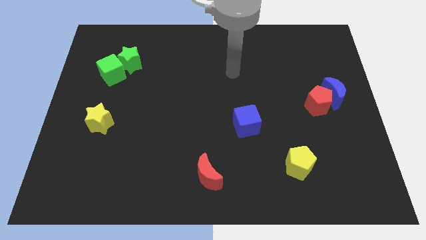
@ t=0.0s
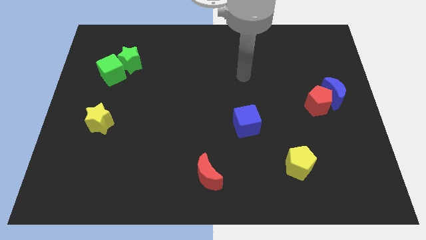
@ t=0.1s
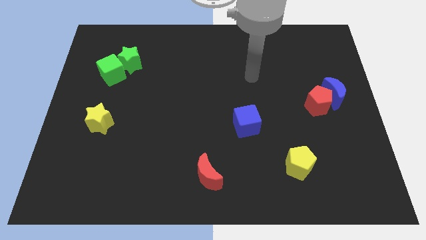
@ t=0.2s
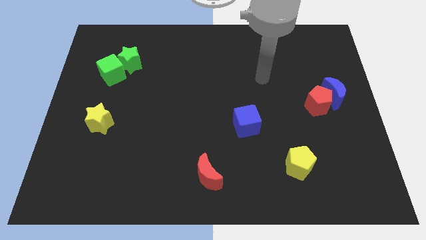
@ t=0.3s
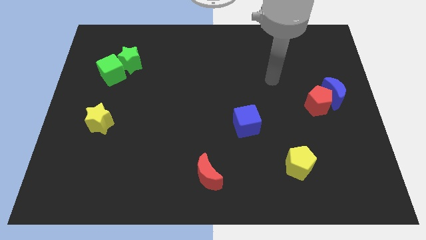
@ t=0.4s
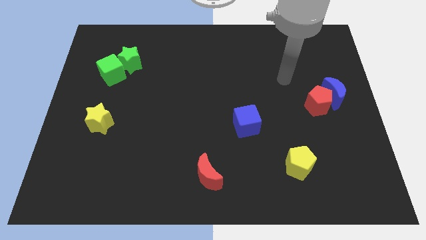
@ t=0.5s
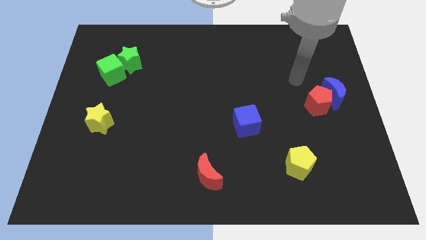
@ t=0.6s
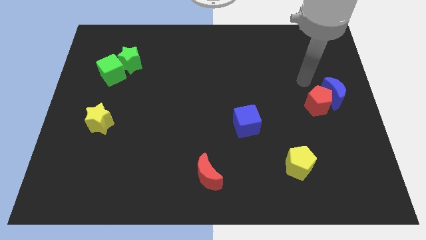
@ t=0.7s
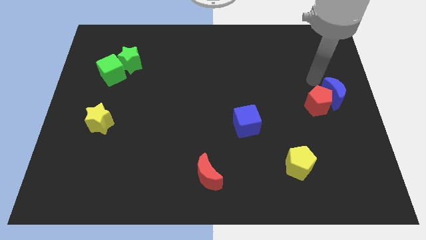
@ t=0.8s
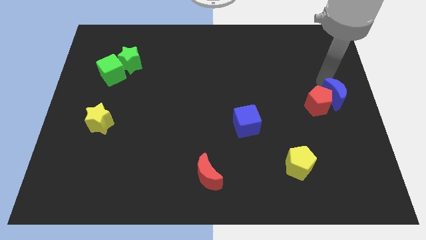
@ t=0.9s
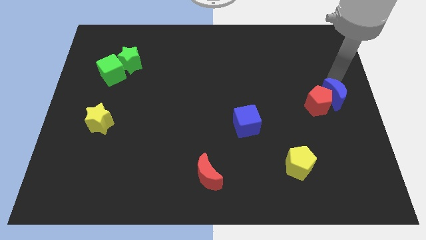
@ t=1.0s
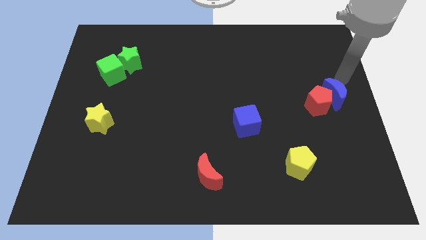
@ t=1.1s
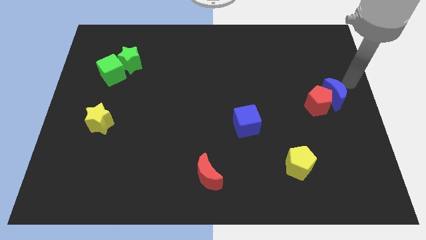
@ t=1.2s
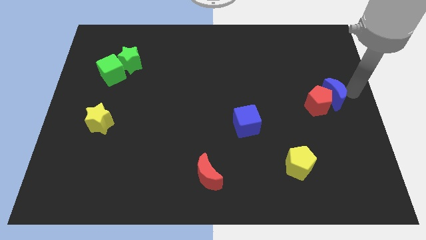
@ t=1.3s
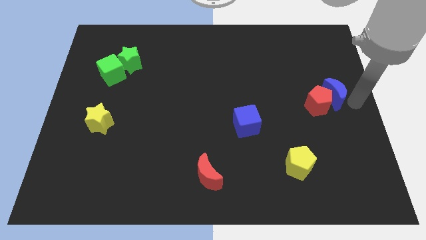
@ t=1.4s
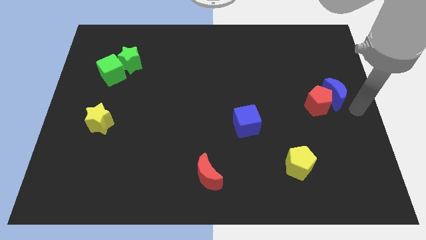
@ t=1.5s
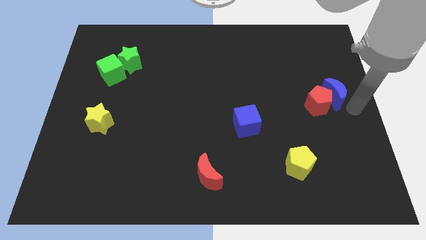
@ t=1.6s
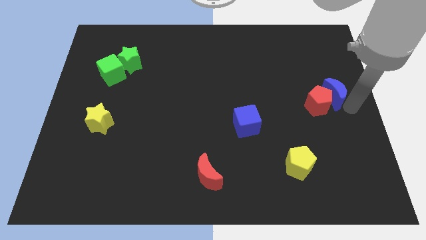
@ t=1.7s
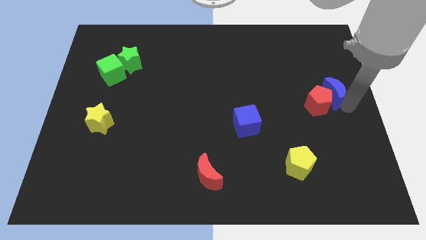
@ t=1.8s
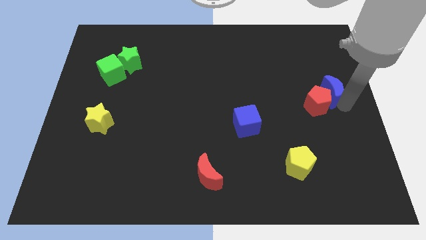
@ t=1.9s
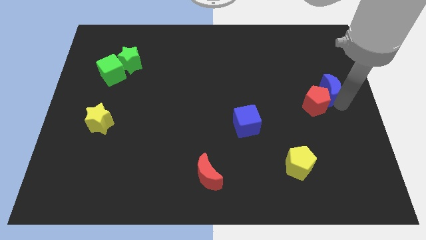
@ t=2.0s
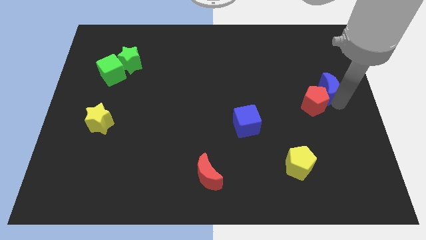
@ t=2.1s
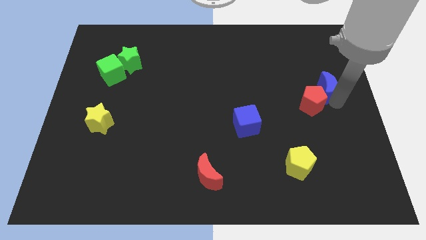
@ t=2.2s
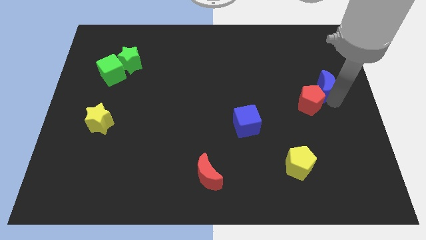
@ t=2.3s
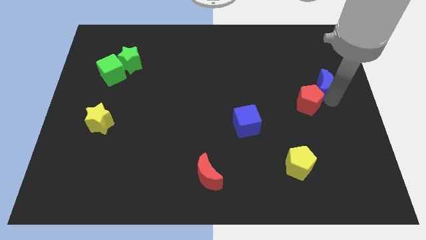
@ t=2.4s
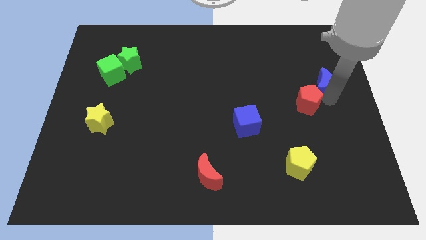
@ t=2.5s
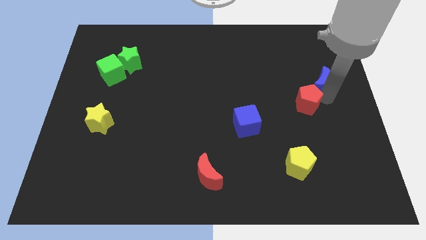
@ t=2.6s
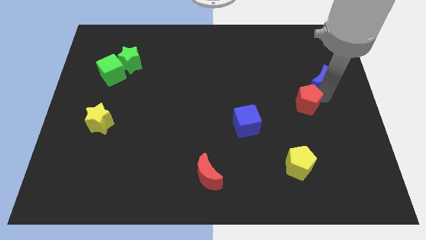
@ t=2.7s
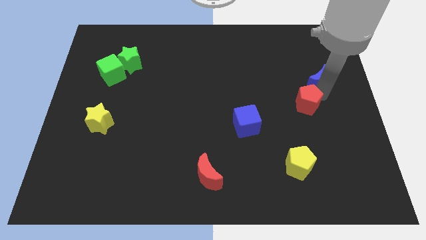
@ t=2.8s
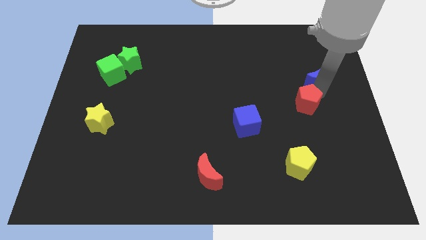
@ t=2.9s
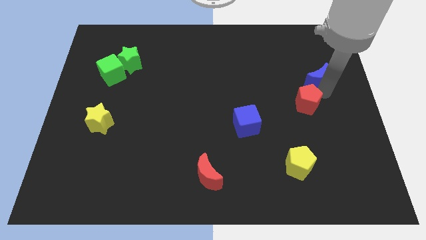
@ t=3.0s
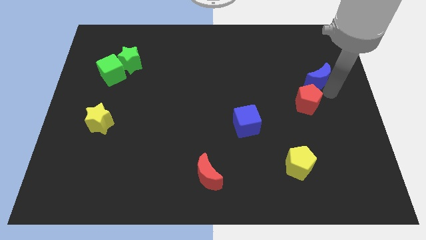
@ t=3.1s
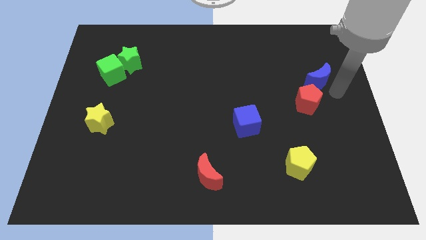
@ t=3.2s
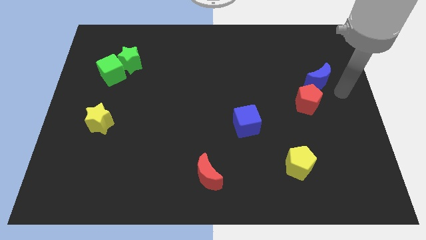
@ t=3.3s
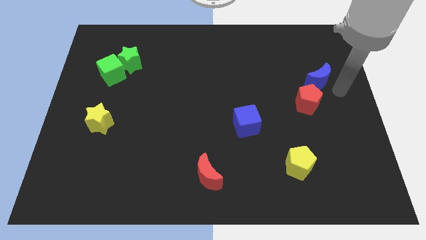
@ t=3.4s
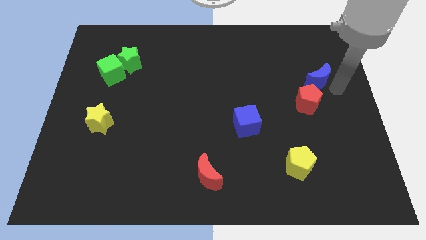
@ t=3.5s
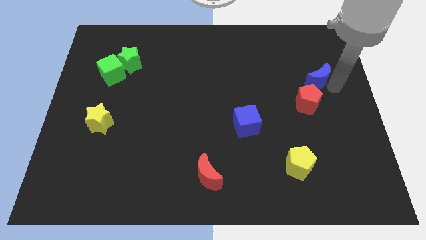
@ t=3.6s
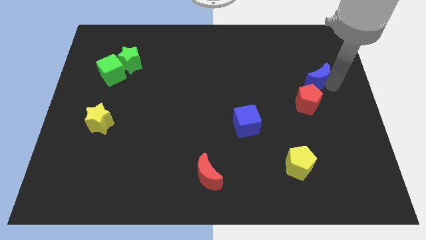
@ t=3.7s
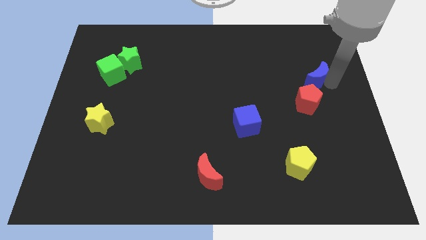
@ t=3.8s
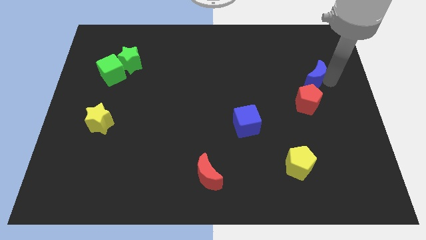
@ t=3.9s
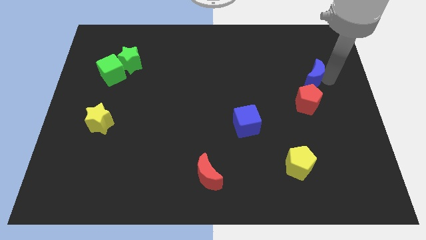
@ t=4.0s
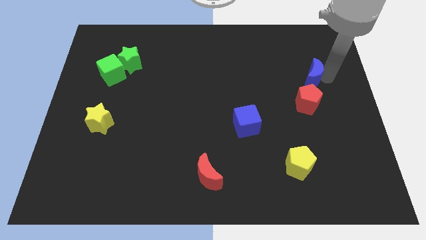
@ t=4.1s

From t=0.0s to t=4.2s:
slide the blue moon a little bit upwards and then left

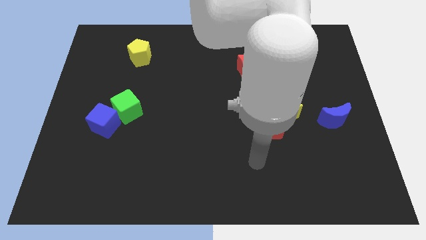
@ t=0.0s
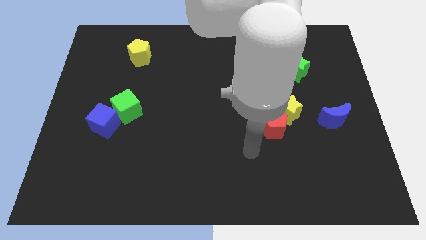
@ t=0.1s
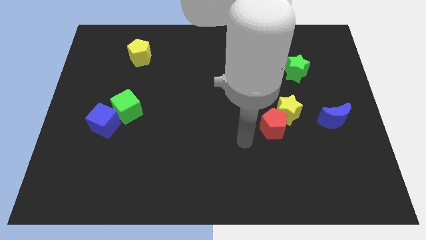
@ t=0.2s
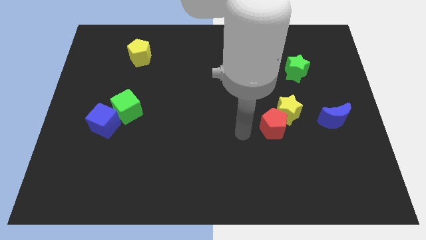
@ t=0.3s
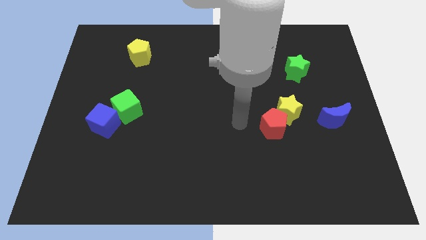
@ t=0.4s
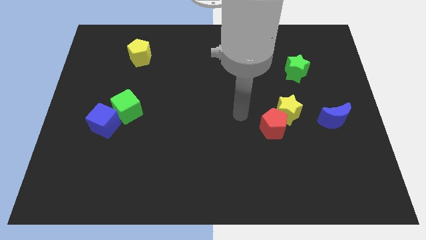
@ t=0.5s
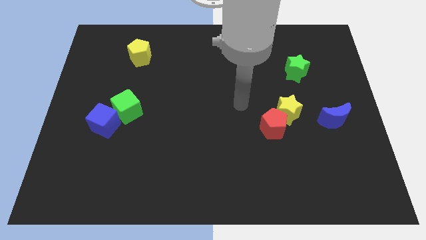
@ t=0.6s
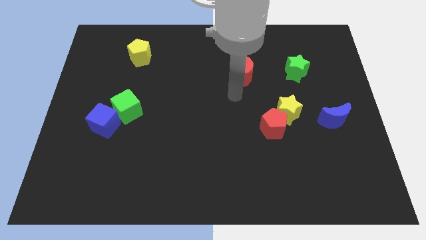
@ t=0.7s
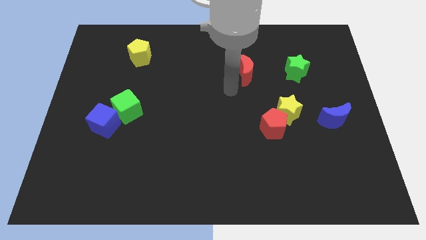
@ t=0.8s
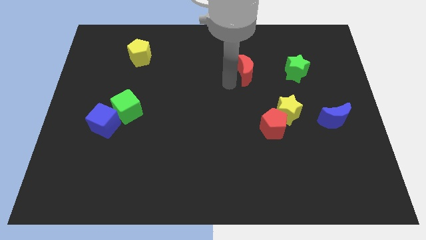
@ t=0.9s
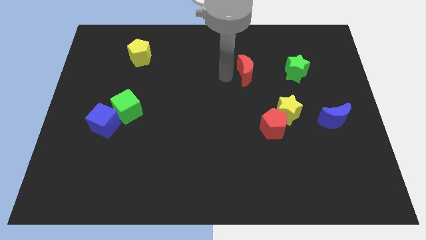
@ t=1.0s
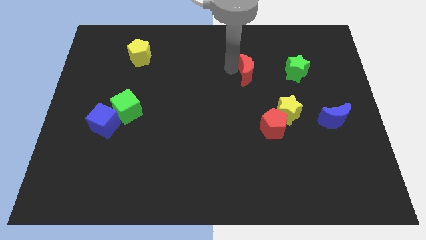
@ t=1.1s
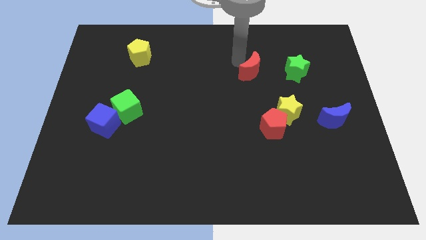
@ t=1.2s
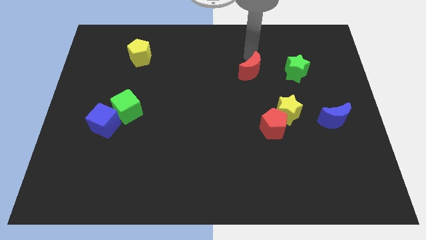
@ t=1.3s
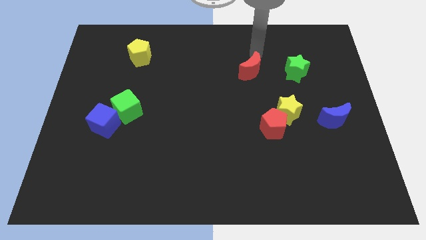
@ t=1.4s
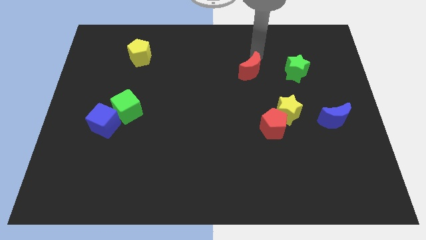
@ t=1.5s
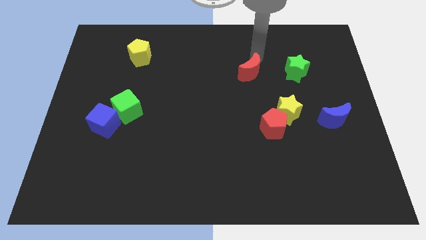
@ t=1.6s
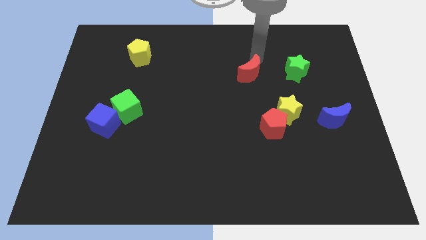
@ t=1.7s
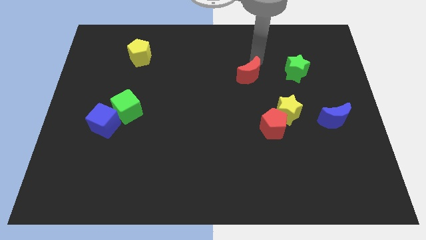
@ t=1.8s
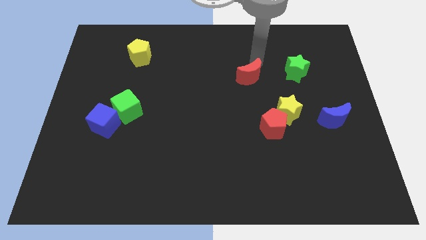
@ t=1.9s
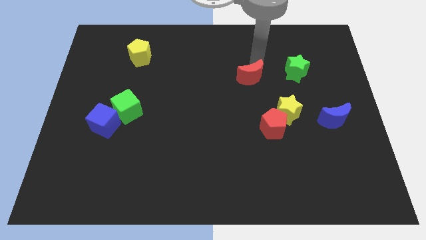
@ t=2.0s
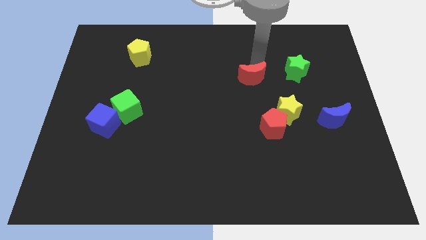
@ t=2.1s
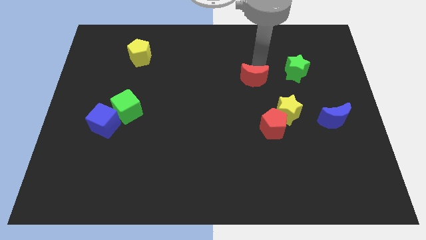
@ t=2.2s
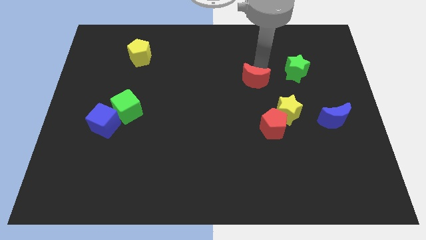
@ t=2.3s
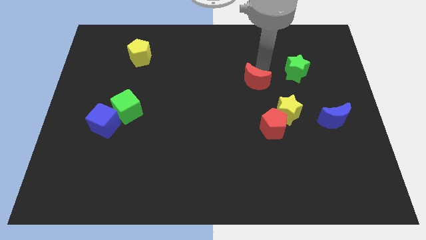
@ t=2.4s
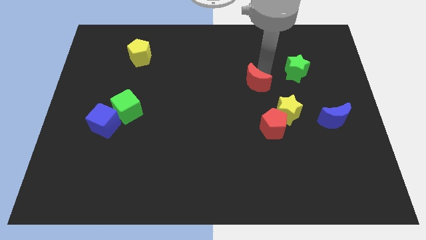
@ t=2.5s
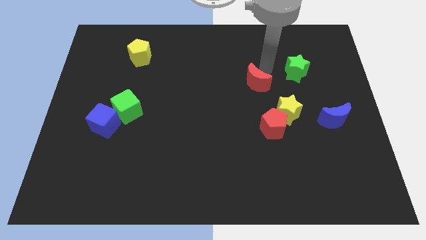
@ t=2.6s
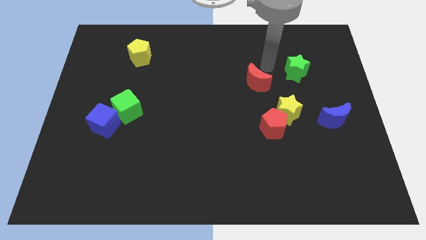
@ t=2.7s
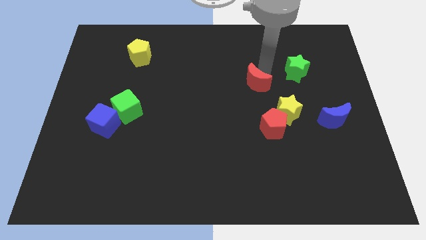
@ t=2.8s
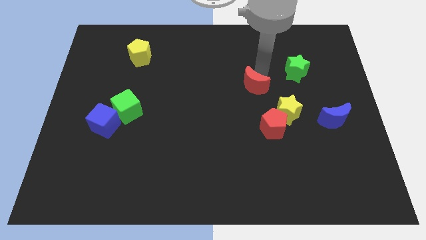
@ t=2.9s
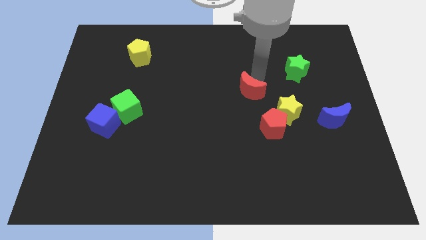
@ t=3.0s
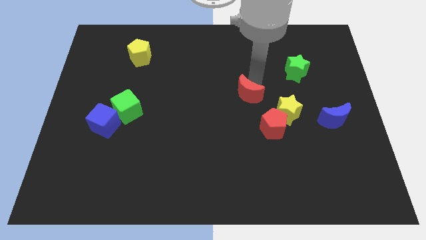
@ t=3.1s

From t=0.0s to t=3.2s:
push the red moon downwards a bit

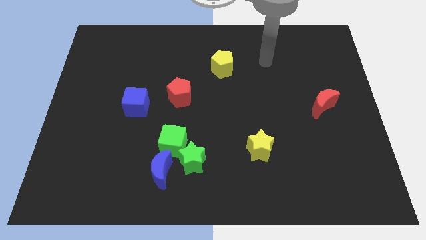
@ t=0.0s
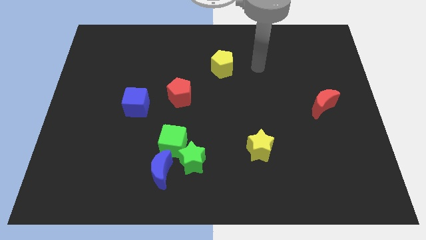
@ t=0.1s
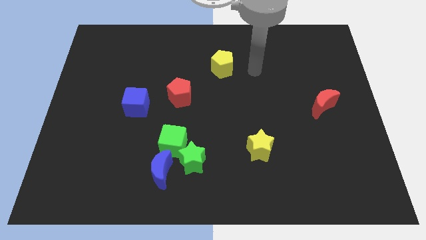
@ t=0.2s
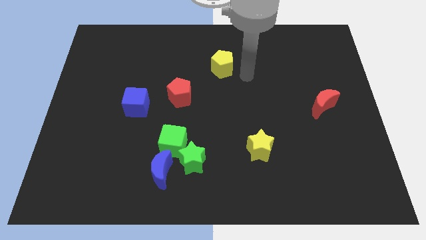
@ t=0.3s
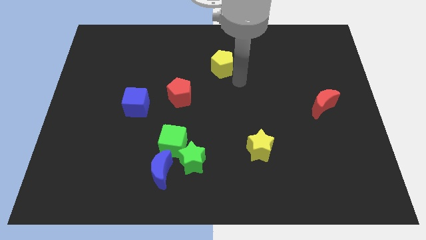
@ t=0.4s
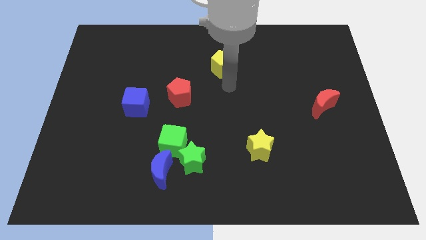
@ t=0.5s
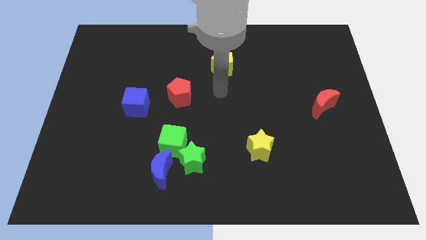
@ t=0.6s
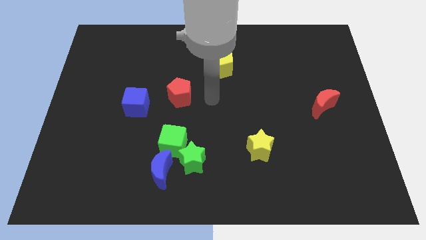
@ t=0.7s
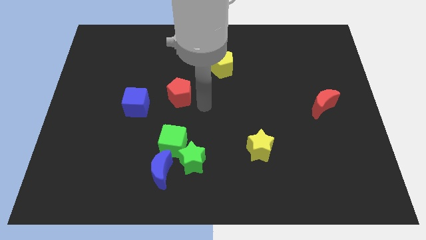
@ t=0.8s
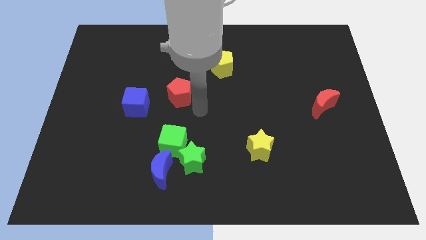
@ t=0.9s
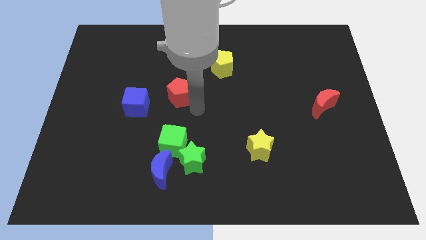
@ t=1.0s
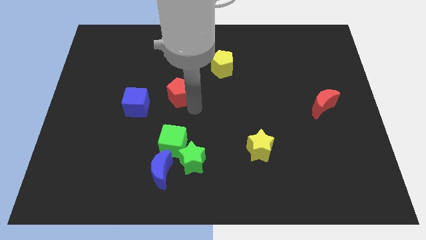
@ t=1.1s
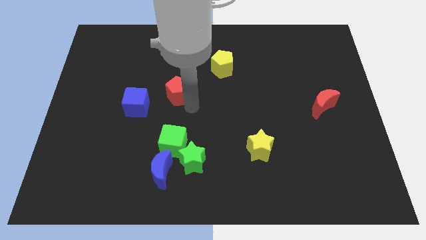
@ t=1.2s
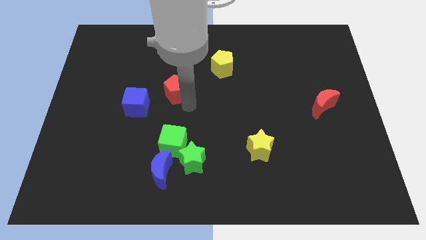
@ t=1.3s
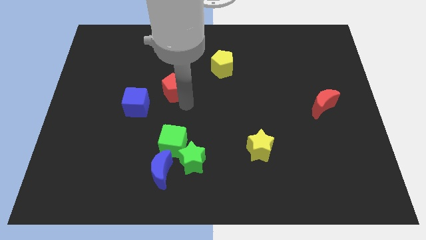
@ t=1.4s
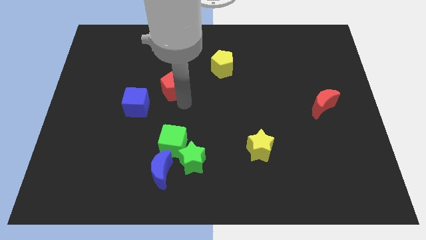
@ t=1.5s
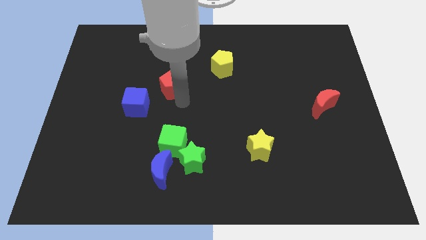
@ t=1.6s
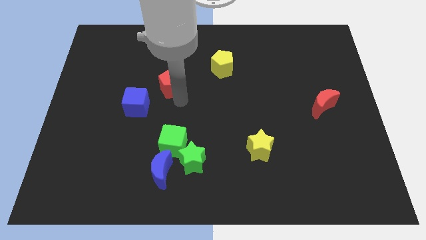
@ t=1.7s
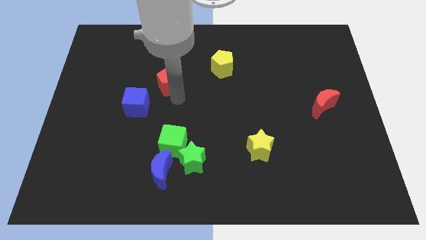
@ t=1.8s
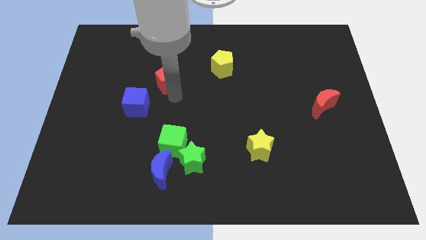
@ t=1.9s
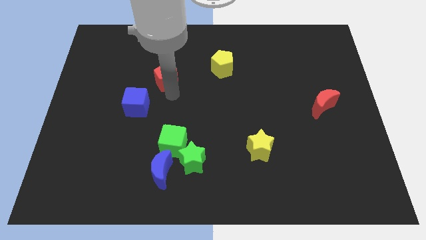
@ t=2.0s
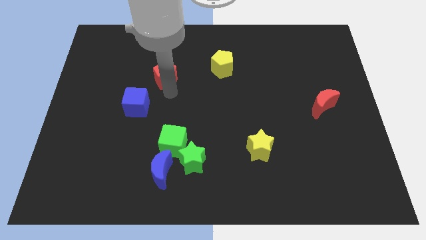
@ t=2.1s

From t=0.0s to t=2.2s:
slightly slide the red pentagon up and then to the left
